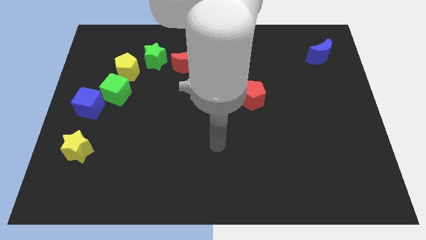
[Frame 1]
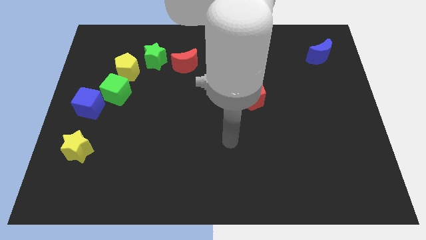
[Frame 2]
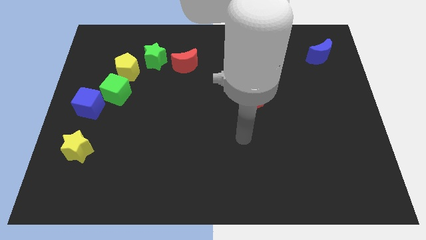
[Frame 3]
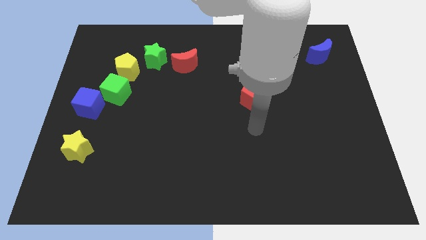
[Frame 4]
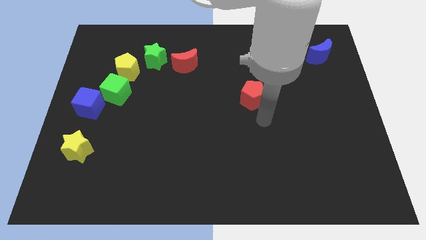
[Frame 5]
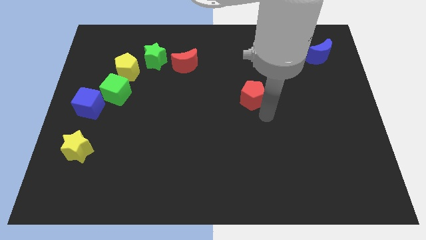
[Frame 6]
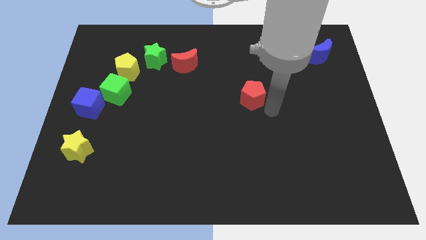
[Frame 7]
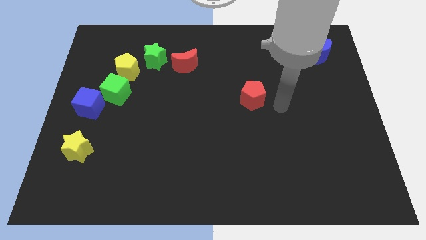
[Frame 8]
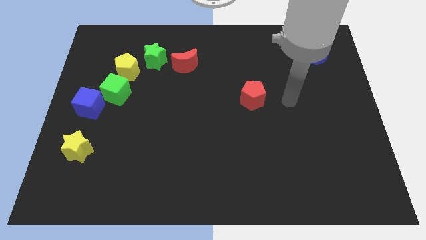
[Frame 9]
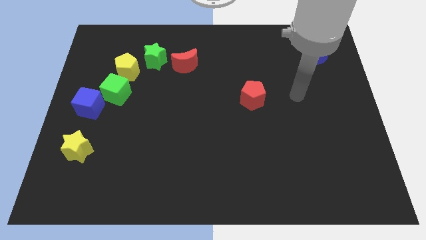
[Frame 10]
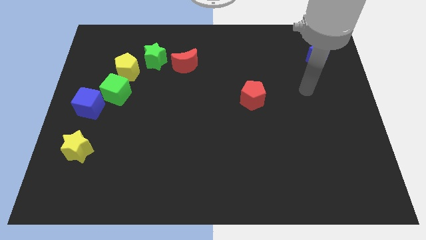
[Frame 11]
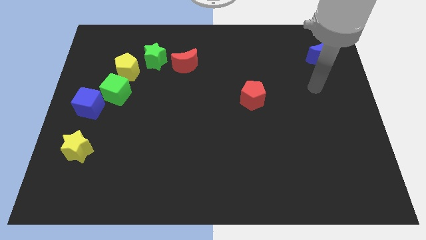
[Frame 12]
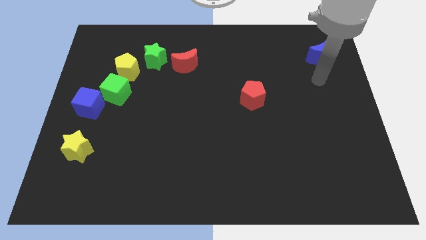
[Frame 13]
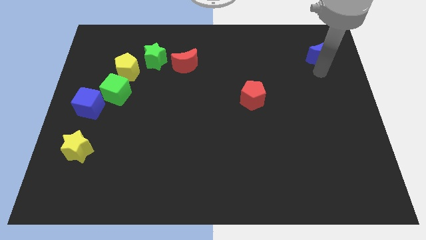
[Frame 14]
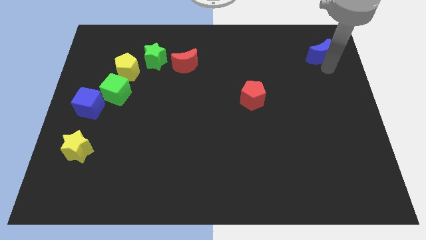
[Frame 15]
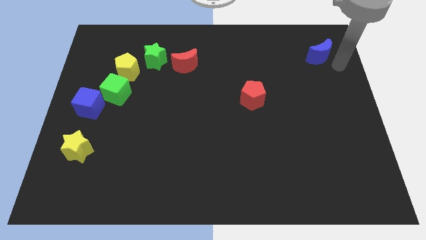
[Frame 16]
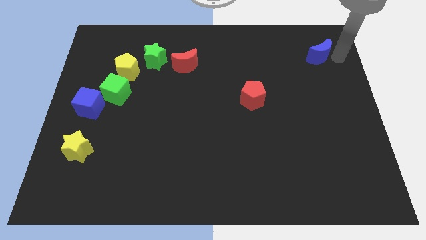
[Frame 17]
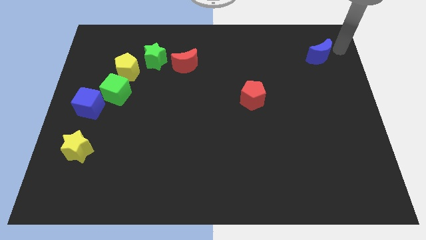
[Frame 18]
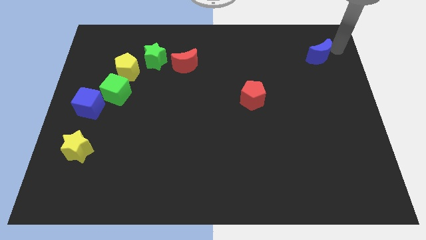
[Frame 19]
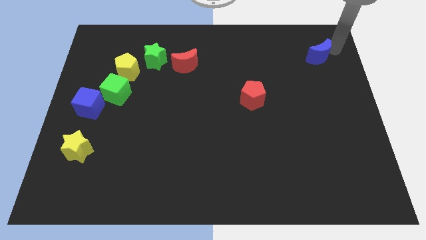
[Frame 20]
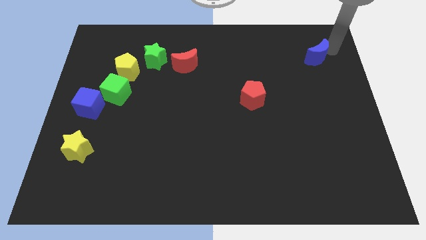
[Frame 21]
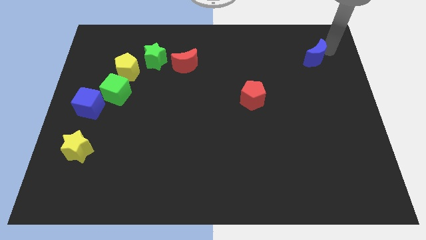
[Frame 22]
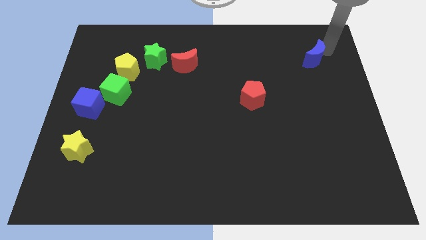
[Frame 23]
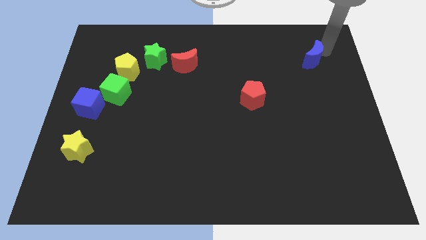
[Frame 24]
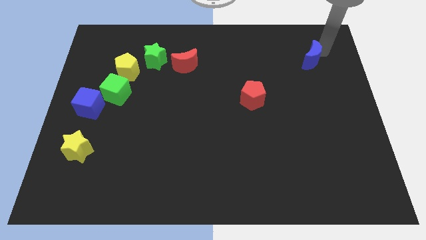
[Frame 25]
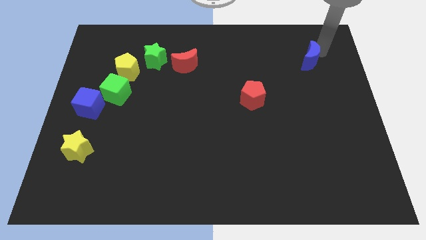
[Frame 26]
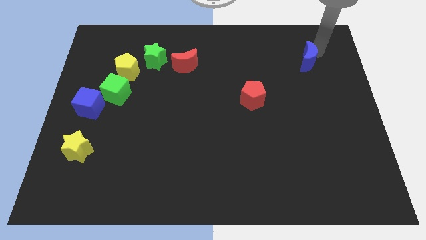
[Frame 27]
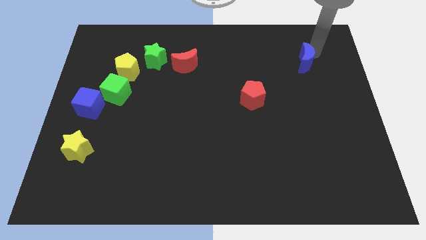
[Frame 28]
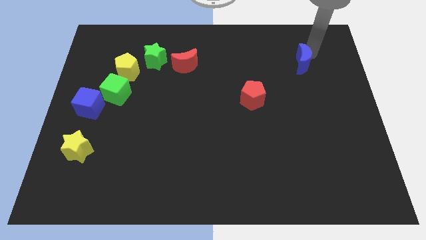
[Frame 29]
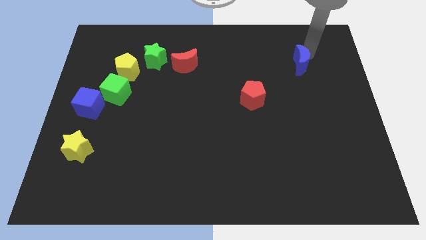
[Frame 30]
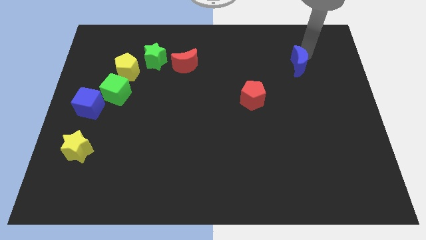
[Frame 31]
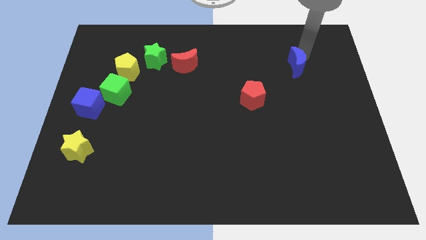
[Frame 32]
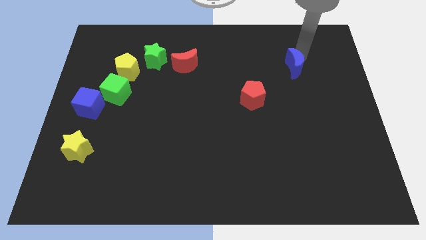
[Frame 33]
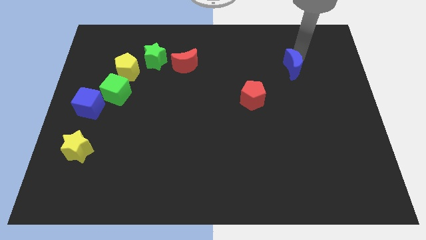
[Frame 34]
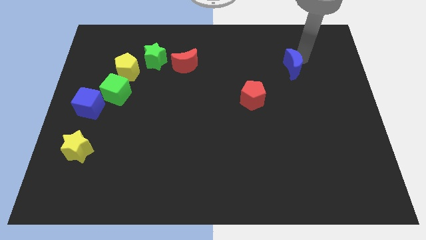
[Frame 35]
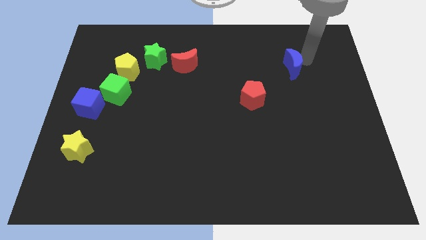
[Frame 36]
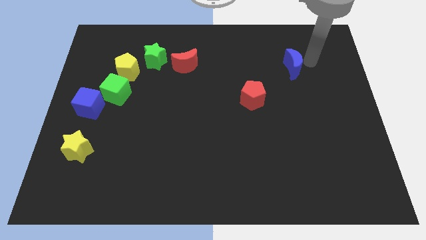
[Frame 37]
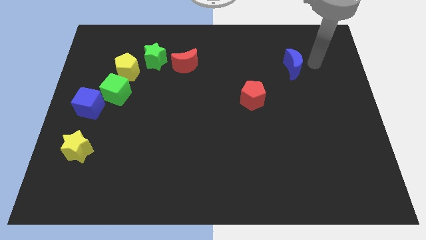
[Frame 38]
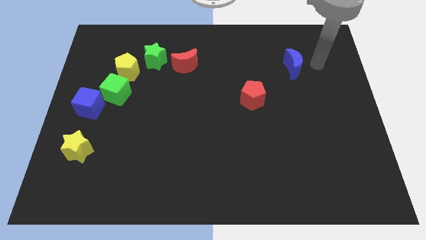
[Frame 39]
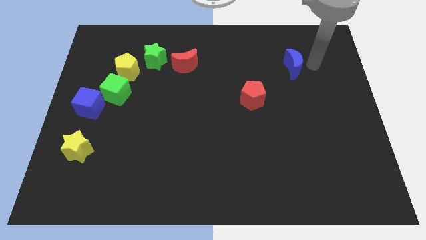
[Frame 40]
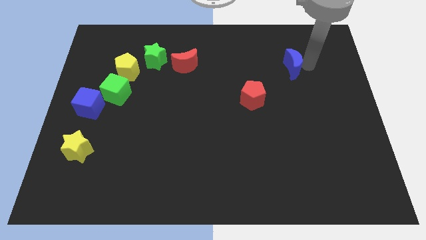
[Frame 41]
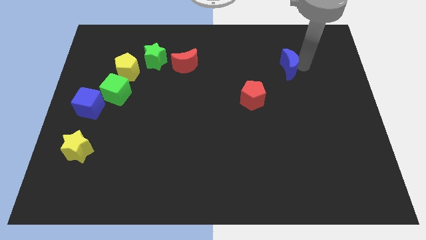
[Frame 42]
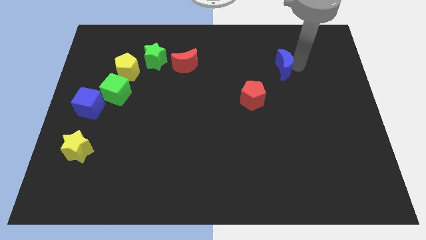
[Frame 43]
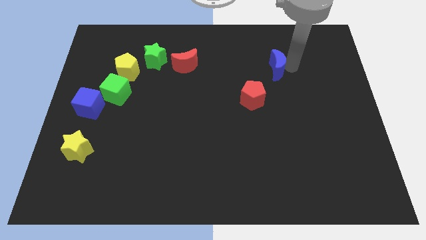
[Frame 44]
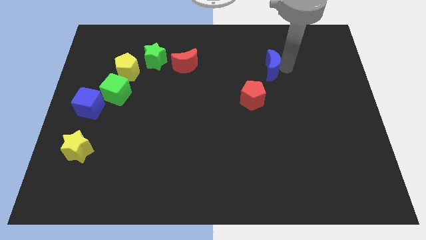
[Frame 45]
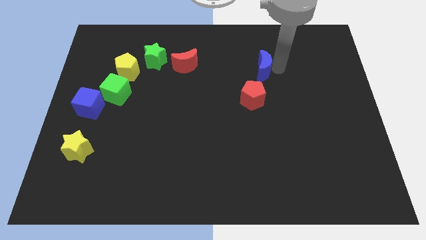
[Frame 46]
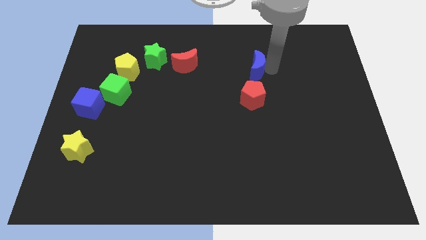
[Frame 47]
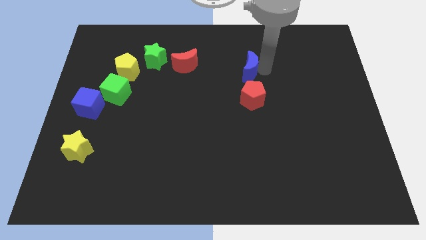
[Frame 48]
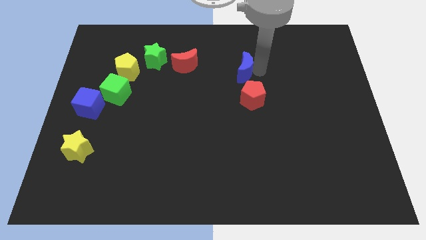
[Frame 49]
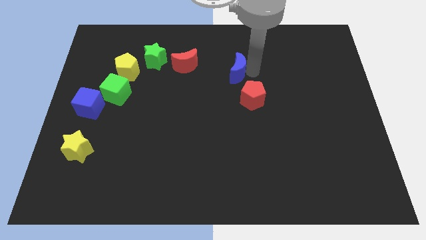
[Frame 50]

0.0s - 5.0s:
push the blue moon left

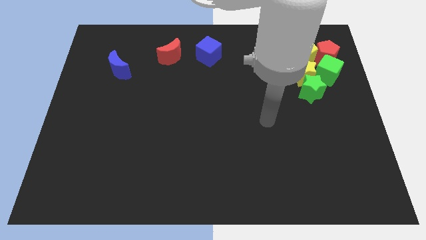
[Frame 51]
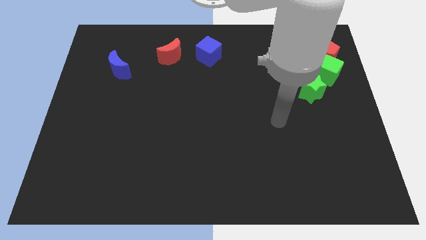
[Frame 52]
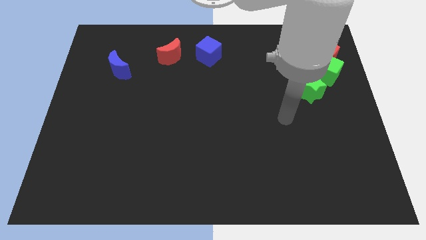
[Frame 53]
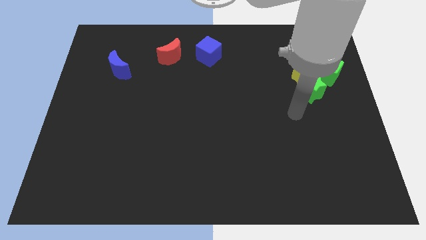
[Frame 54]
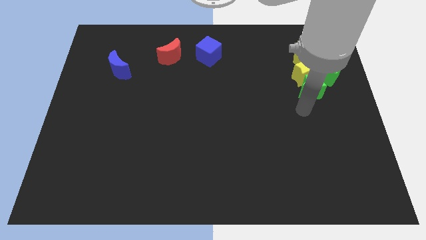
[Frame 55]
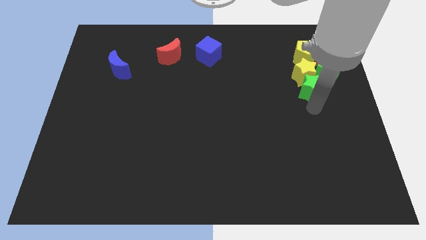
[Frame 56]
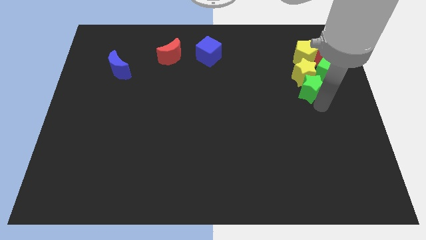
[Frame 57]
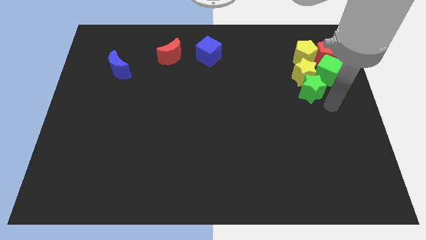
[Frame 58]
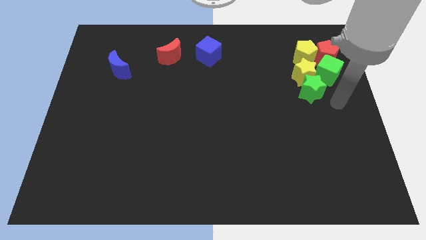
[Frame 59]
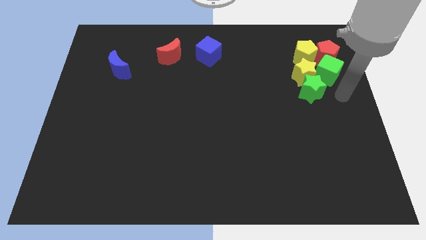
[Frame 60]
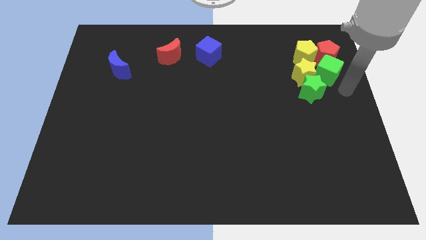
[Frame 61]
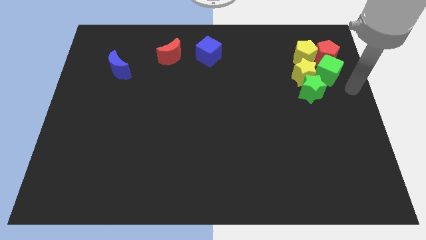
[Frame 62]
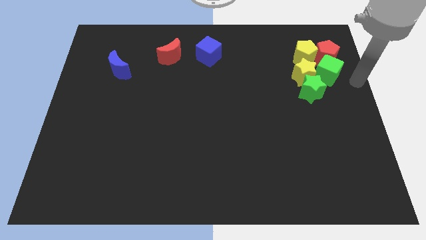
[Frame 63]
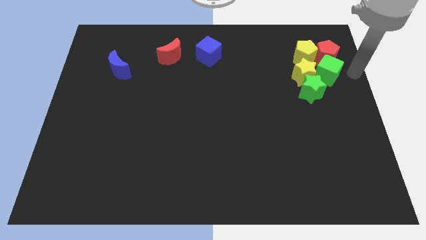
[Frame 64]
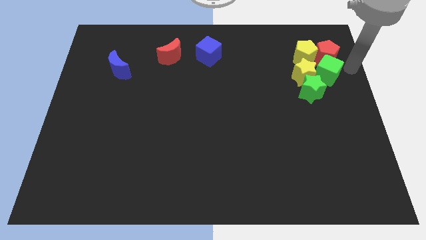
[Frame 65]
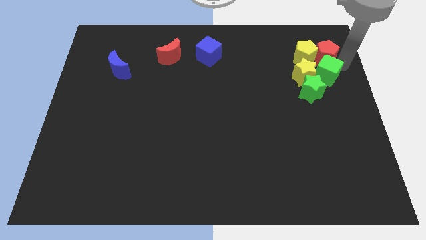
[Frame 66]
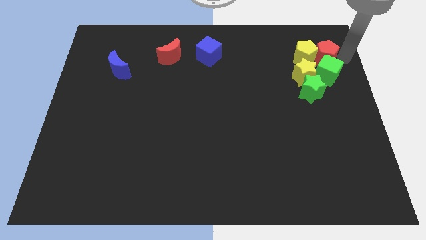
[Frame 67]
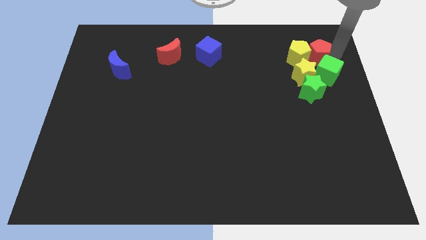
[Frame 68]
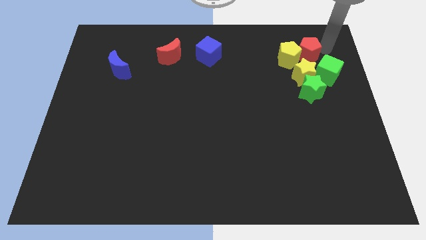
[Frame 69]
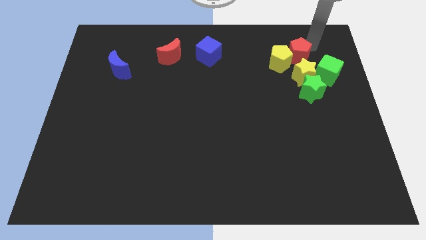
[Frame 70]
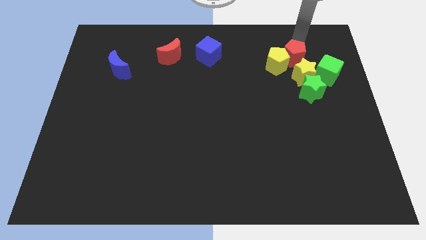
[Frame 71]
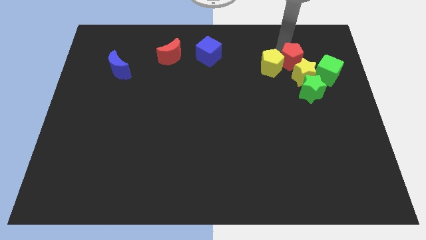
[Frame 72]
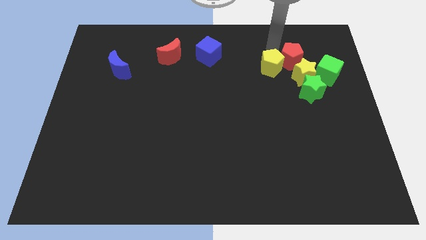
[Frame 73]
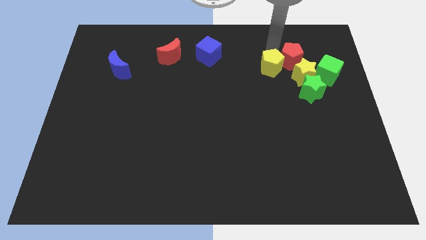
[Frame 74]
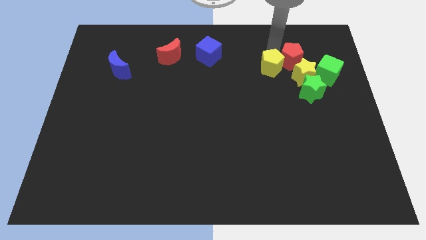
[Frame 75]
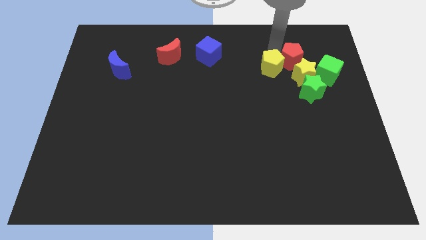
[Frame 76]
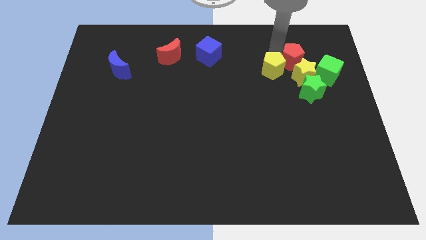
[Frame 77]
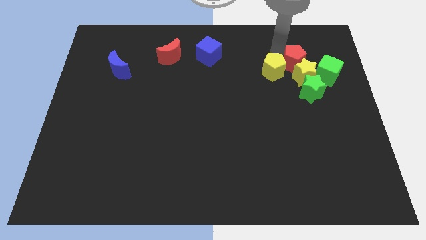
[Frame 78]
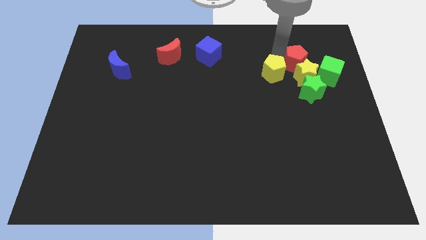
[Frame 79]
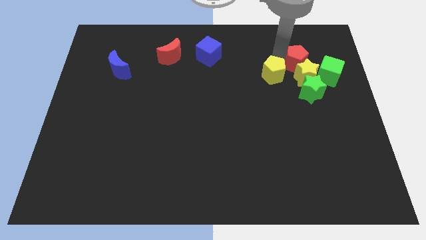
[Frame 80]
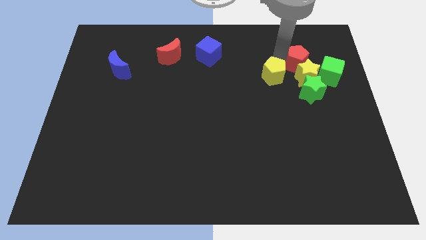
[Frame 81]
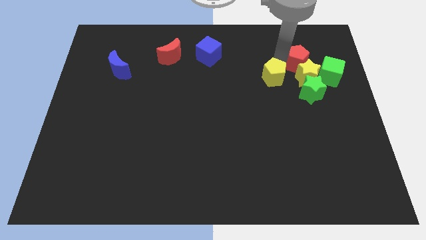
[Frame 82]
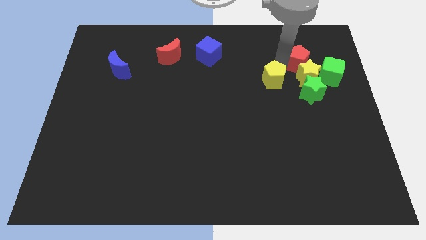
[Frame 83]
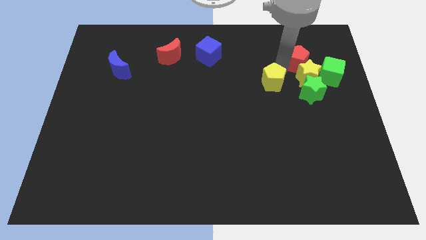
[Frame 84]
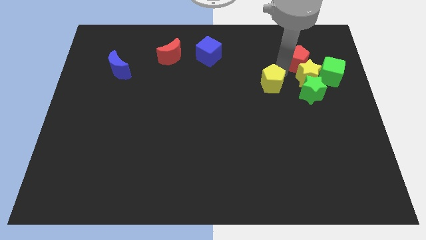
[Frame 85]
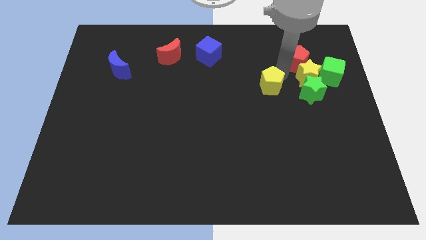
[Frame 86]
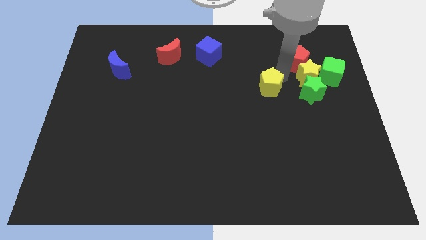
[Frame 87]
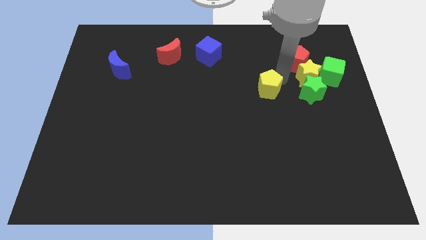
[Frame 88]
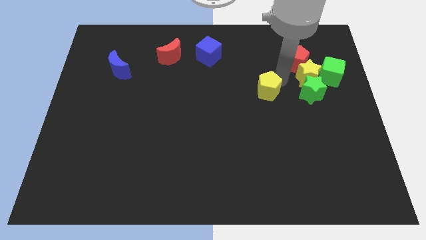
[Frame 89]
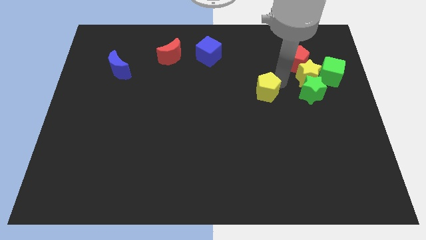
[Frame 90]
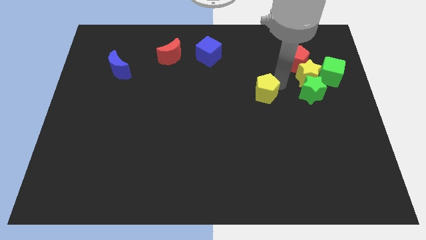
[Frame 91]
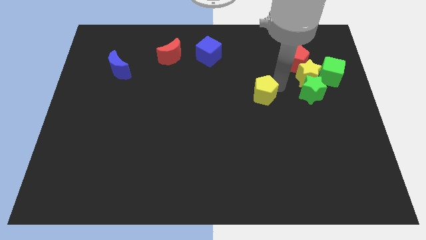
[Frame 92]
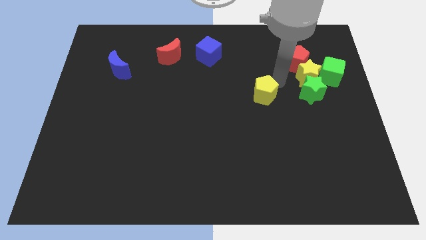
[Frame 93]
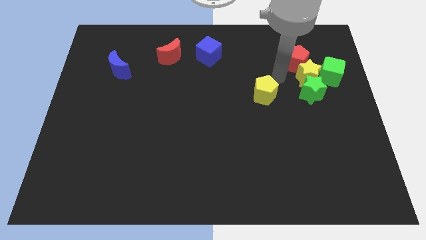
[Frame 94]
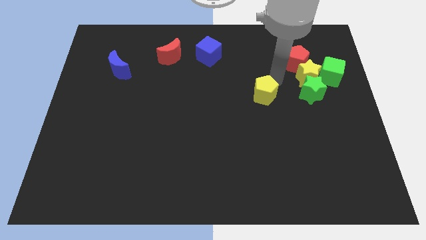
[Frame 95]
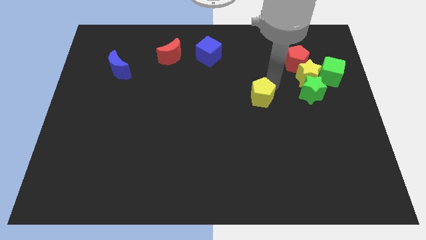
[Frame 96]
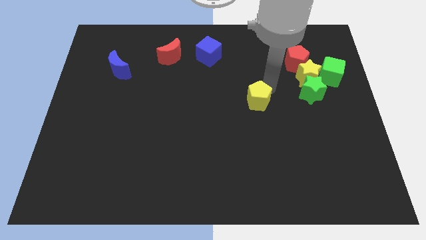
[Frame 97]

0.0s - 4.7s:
slide the yellow pentagon downwards and to the left diagonally
